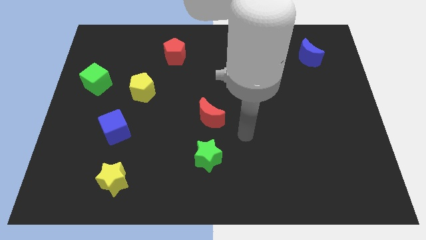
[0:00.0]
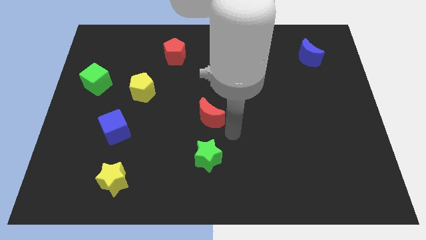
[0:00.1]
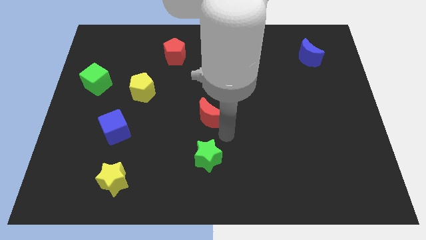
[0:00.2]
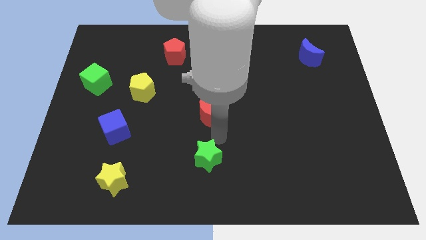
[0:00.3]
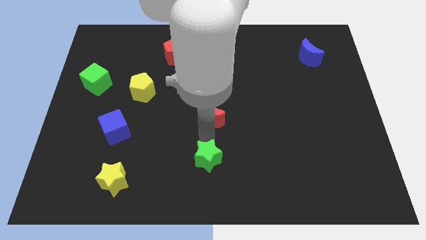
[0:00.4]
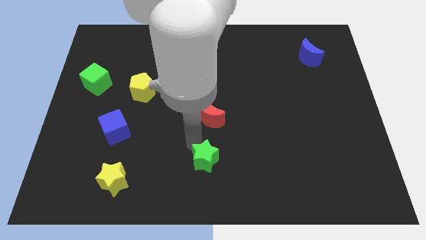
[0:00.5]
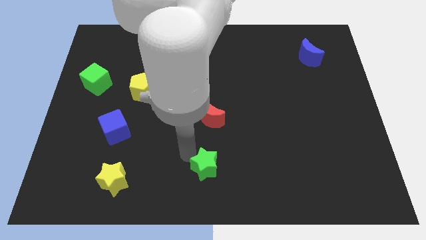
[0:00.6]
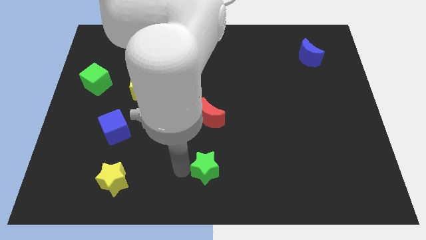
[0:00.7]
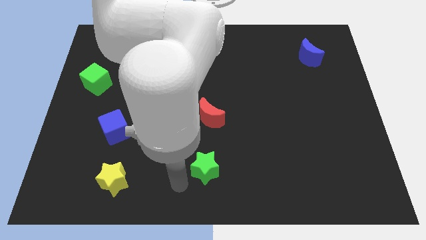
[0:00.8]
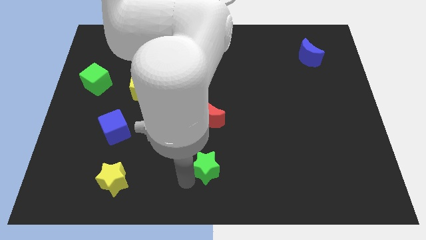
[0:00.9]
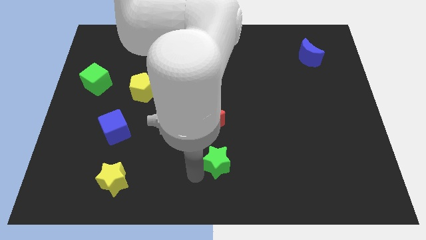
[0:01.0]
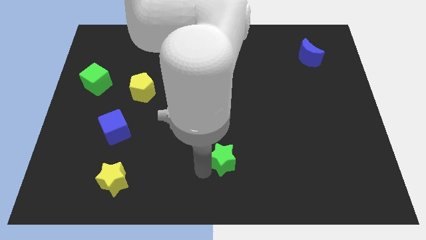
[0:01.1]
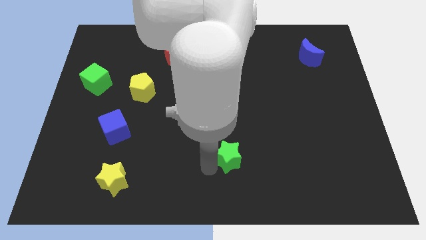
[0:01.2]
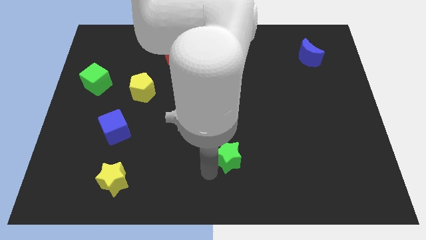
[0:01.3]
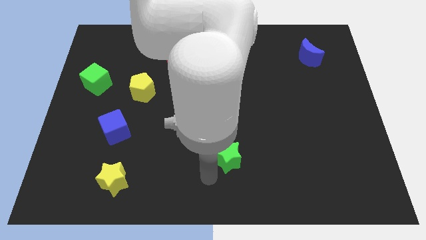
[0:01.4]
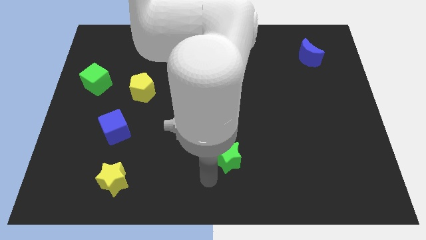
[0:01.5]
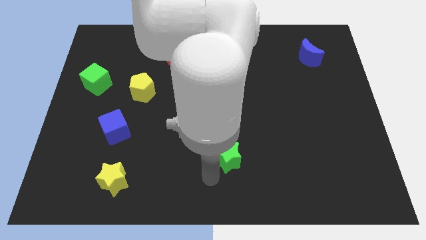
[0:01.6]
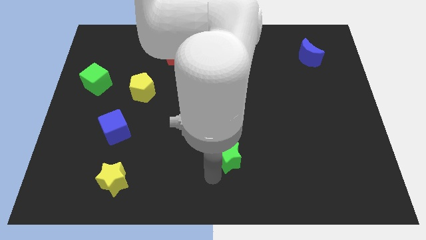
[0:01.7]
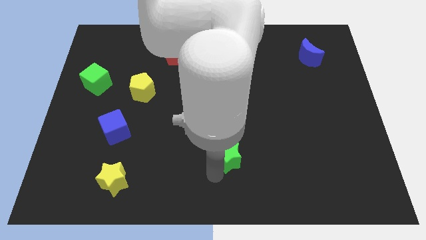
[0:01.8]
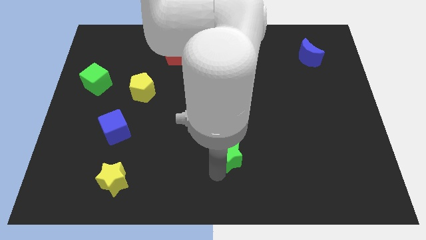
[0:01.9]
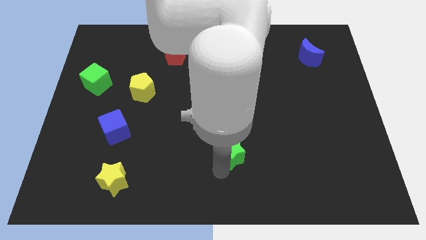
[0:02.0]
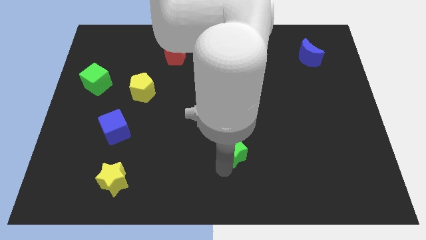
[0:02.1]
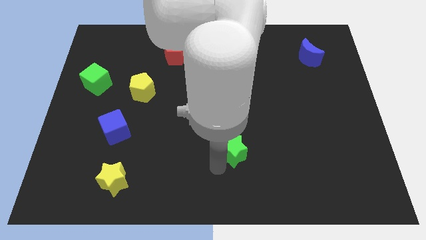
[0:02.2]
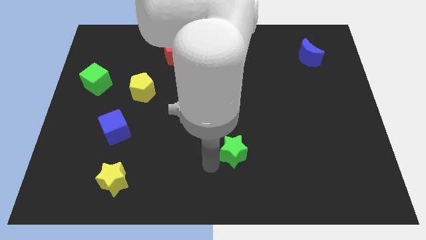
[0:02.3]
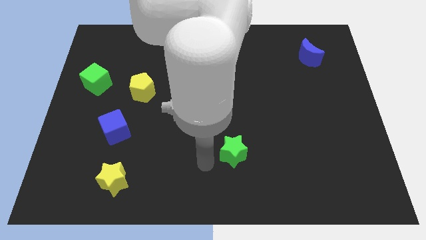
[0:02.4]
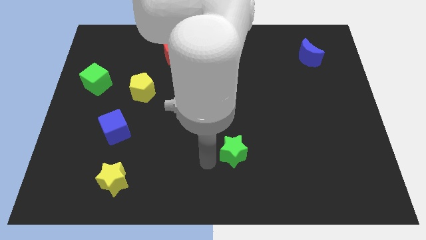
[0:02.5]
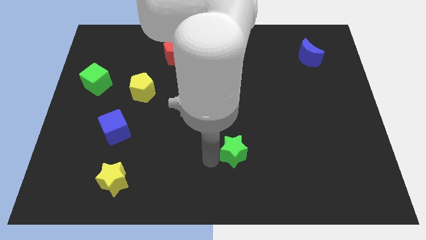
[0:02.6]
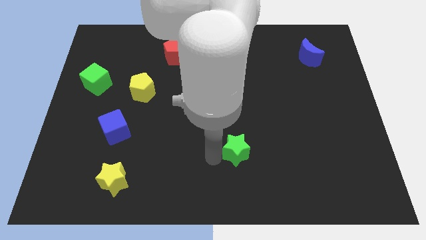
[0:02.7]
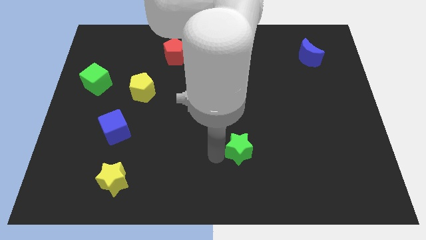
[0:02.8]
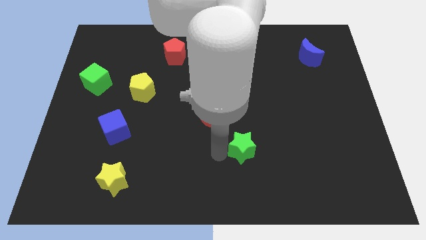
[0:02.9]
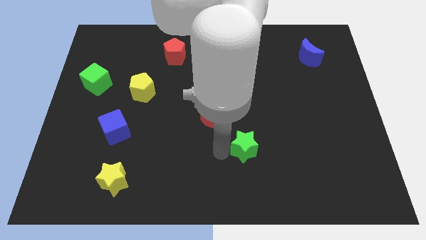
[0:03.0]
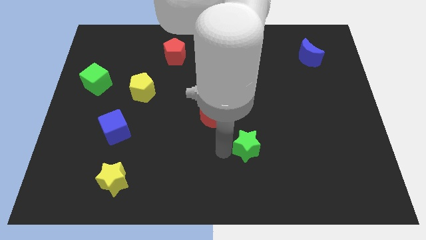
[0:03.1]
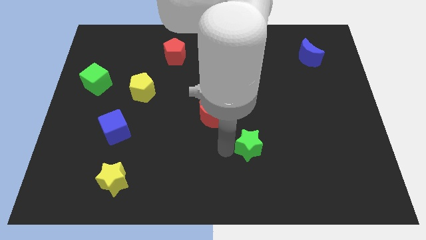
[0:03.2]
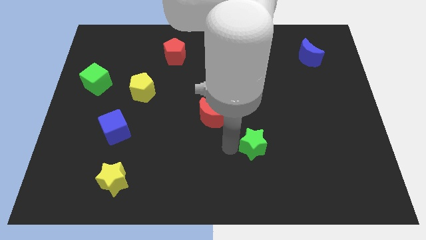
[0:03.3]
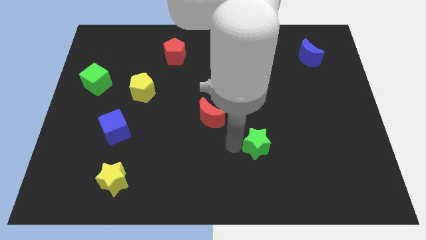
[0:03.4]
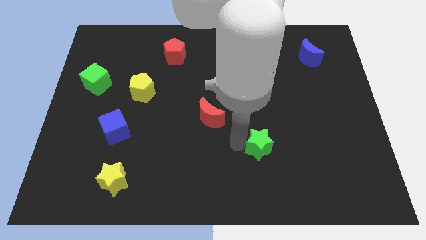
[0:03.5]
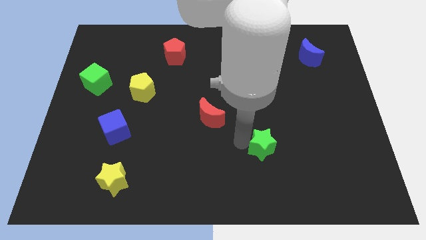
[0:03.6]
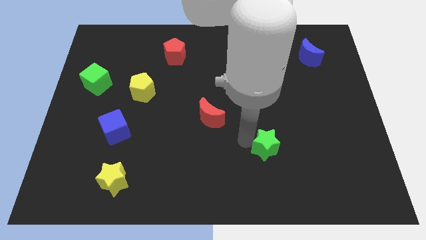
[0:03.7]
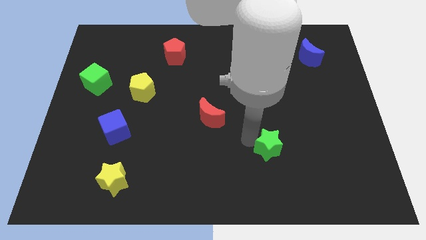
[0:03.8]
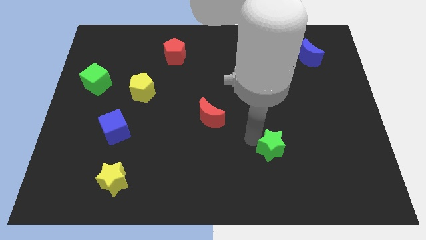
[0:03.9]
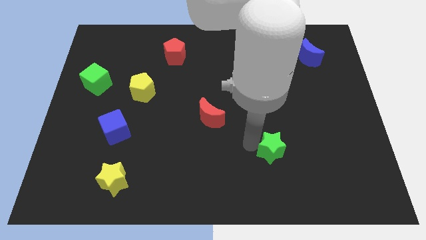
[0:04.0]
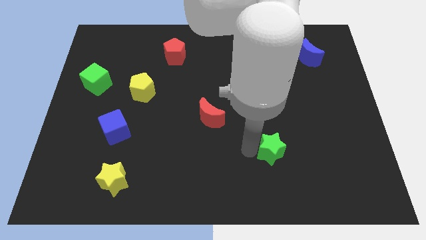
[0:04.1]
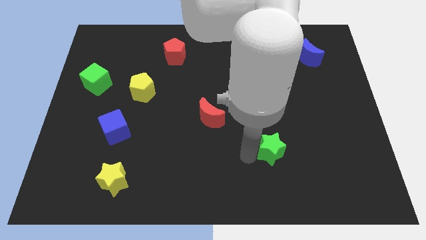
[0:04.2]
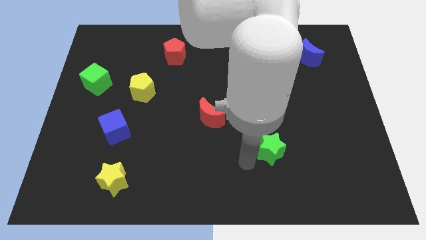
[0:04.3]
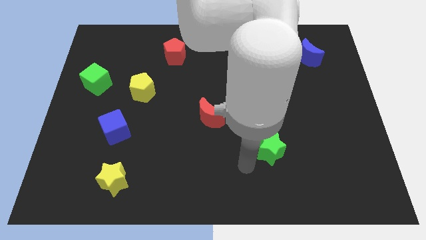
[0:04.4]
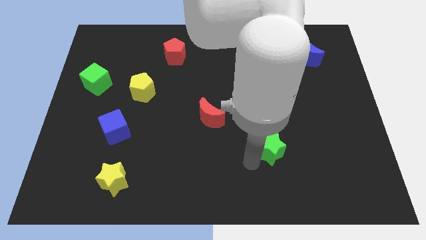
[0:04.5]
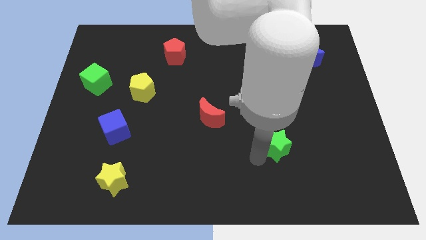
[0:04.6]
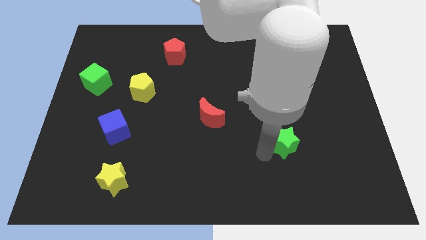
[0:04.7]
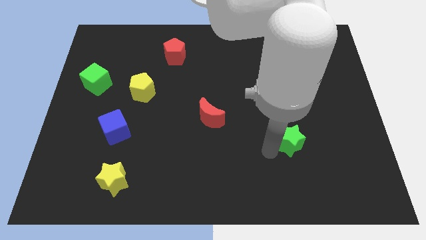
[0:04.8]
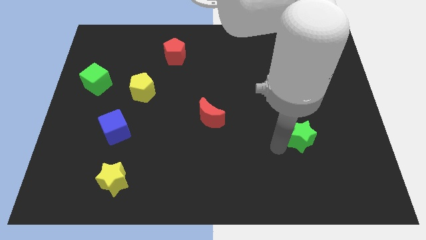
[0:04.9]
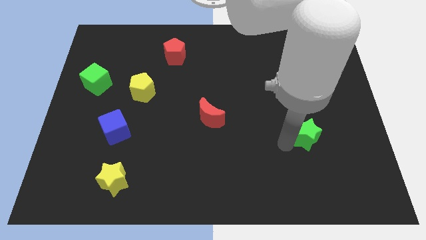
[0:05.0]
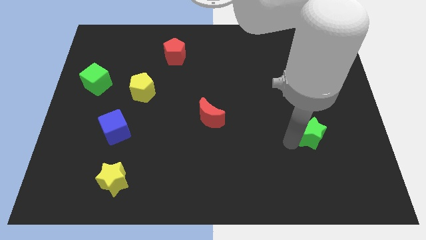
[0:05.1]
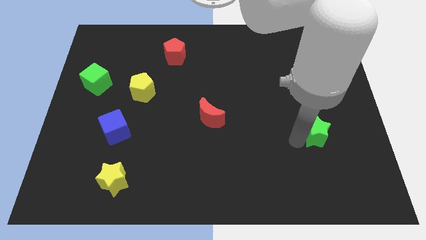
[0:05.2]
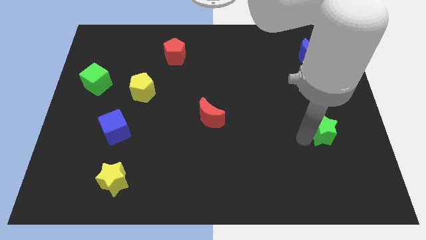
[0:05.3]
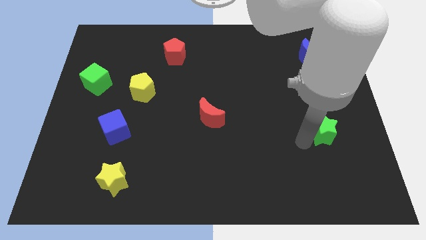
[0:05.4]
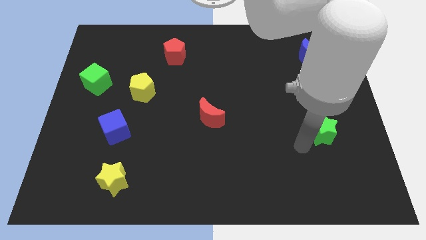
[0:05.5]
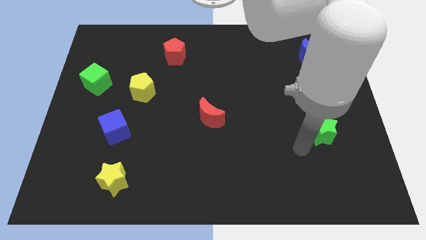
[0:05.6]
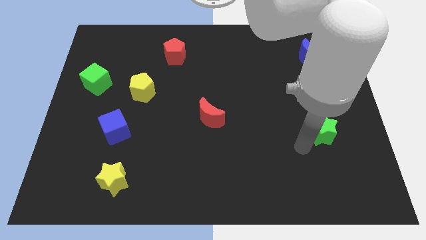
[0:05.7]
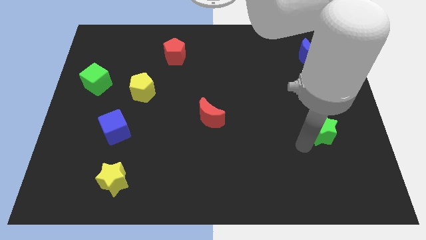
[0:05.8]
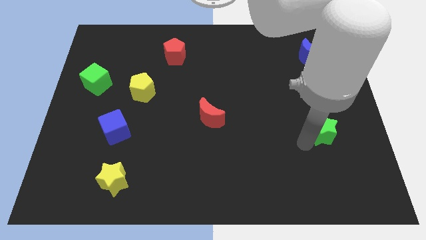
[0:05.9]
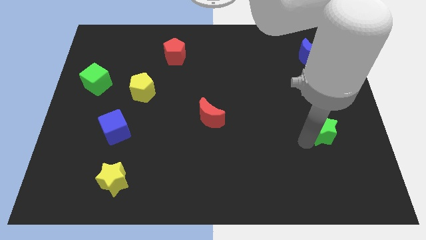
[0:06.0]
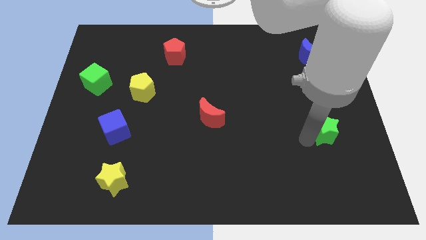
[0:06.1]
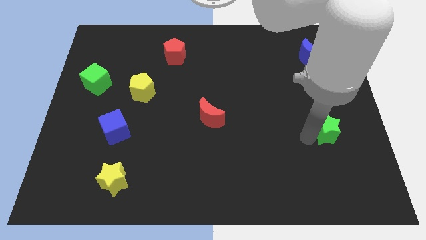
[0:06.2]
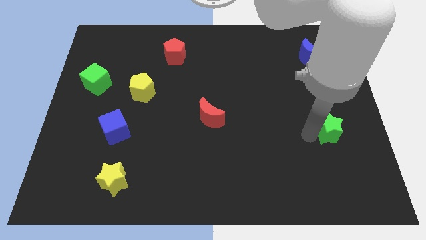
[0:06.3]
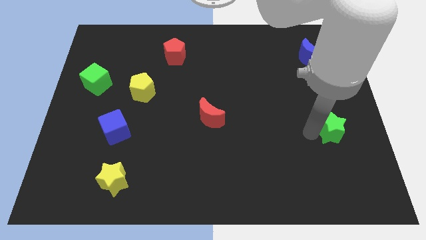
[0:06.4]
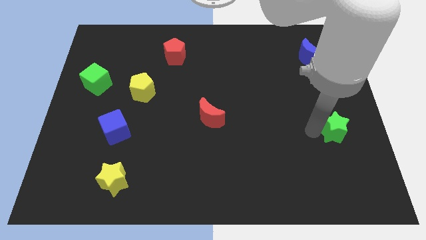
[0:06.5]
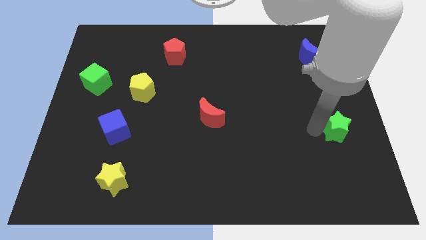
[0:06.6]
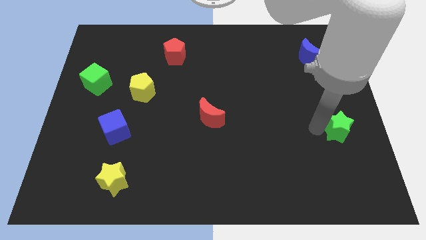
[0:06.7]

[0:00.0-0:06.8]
move the green star to the right side
